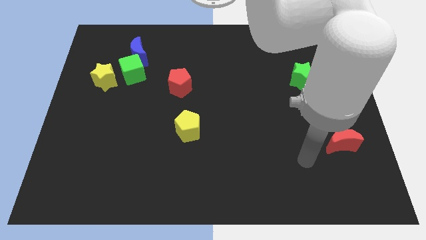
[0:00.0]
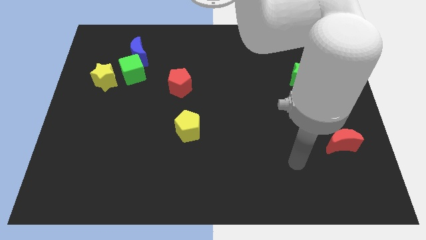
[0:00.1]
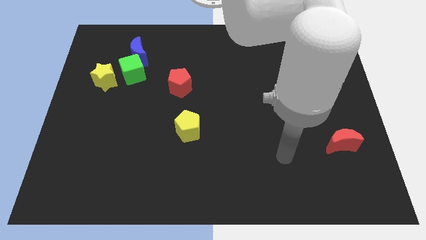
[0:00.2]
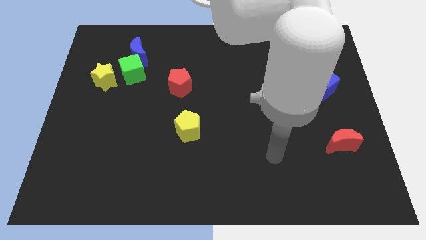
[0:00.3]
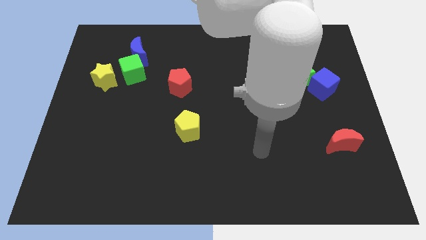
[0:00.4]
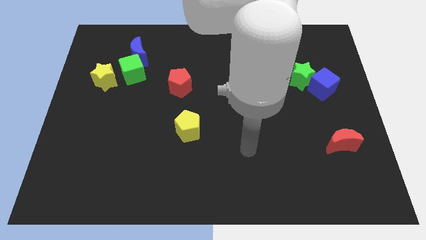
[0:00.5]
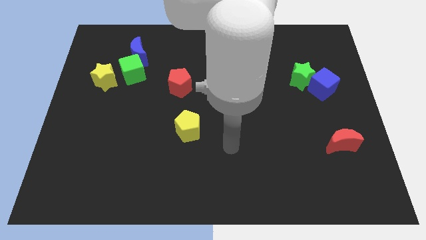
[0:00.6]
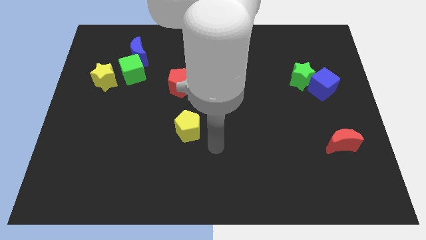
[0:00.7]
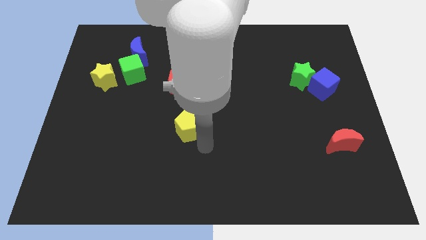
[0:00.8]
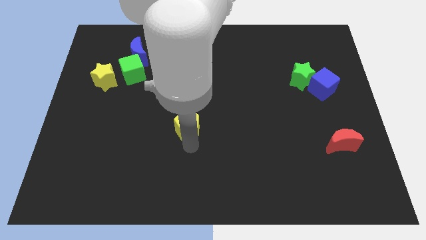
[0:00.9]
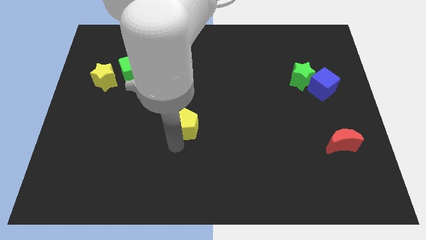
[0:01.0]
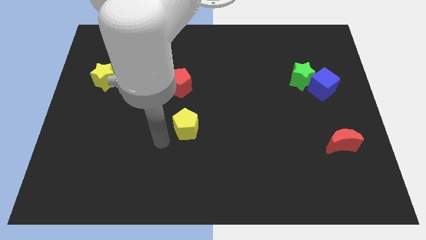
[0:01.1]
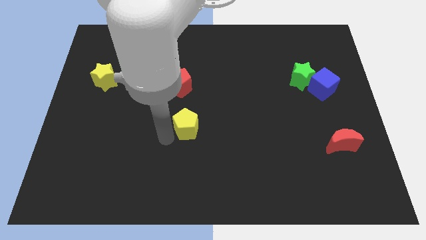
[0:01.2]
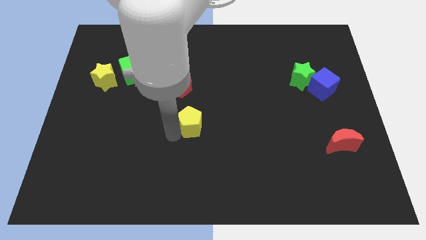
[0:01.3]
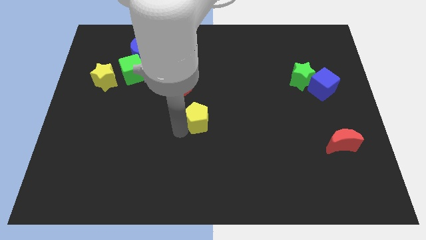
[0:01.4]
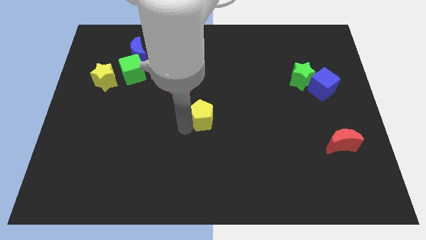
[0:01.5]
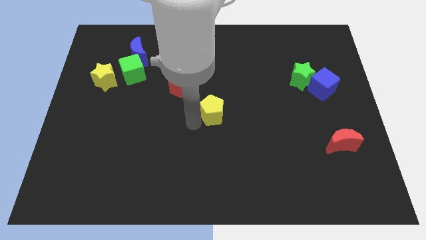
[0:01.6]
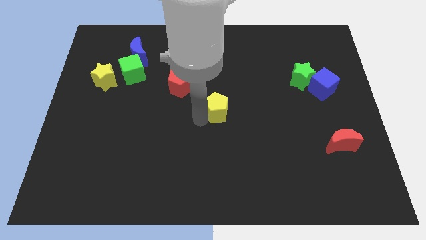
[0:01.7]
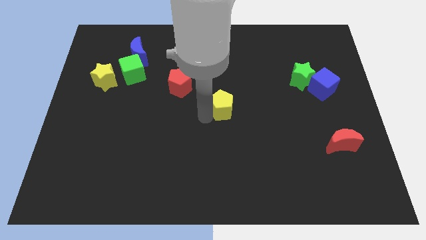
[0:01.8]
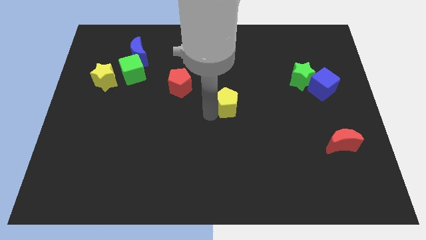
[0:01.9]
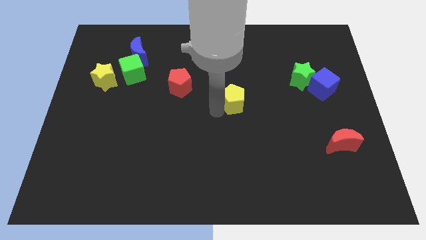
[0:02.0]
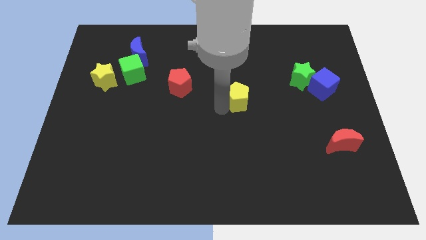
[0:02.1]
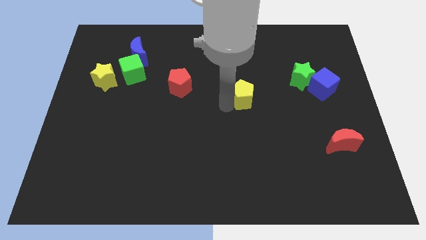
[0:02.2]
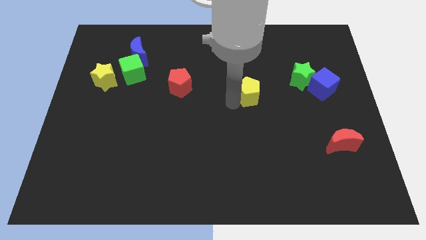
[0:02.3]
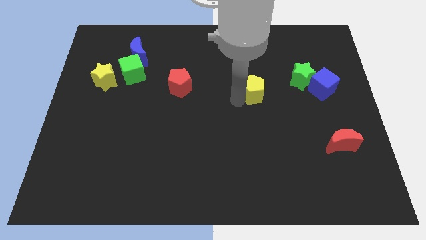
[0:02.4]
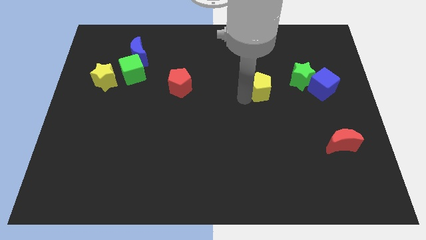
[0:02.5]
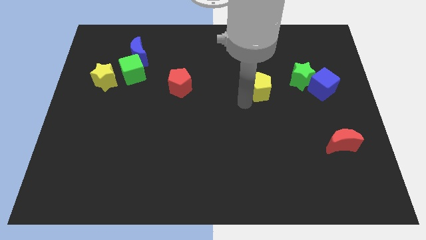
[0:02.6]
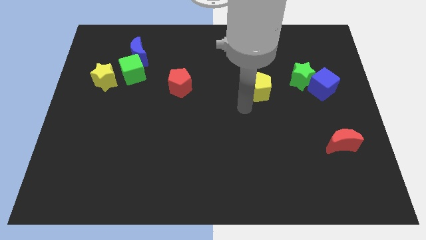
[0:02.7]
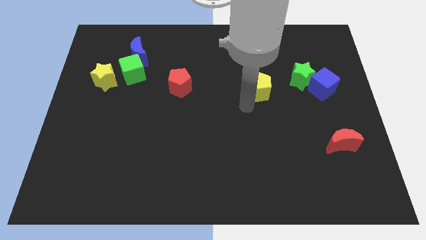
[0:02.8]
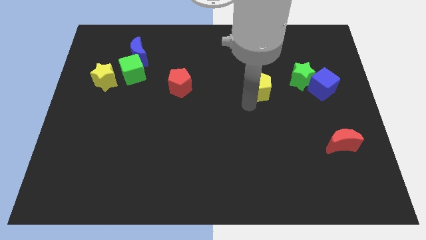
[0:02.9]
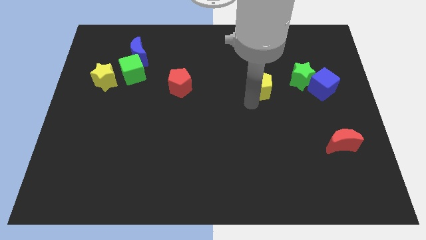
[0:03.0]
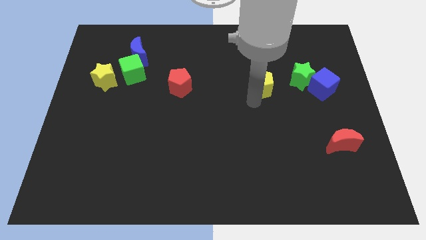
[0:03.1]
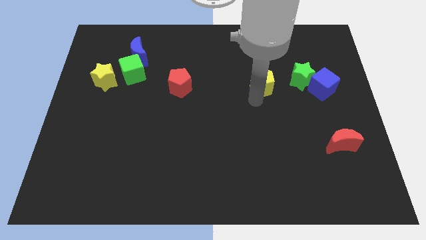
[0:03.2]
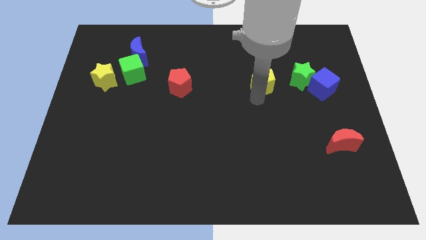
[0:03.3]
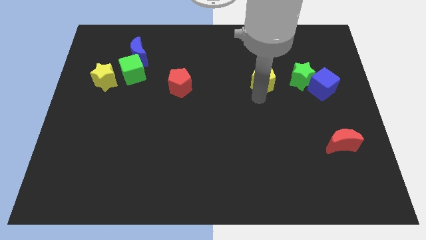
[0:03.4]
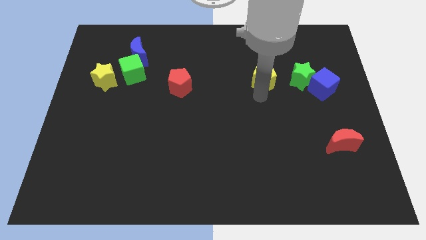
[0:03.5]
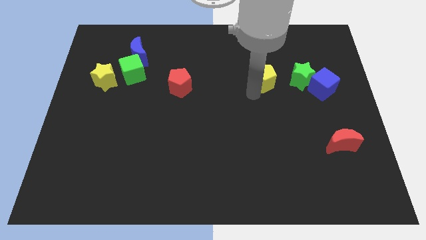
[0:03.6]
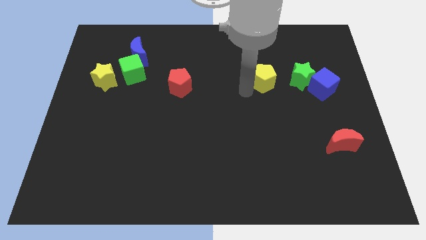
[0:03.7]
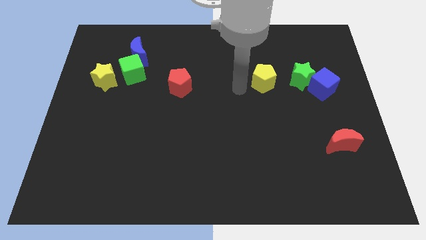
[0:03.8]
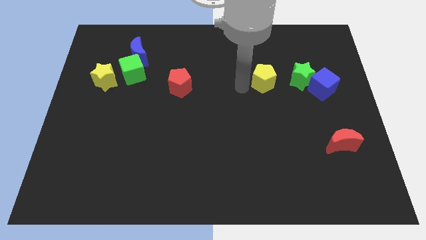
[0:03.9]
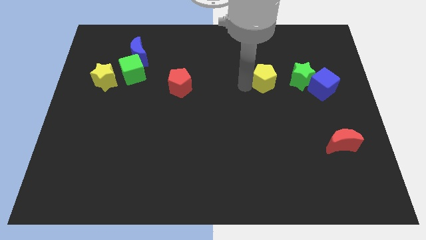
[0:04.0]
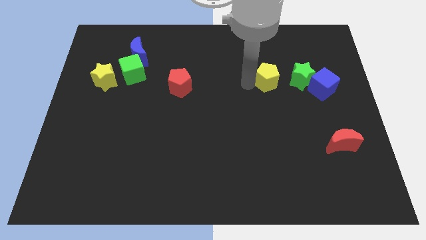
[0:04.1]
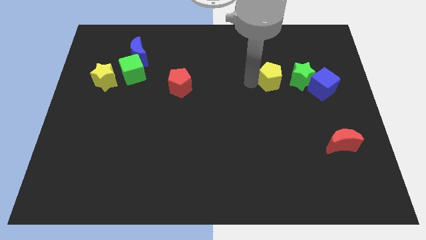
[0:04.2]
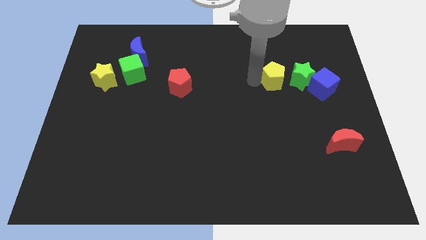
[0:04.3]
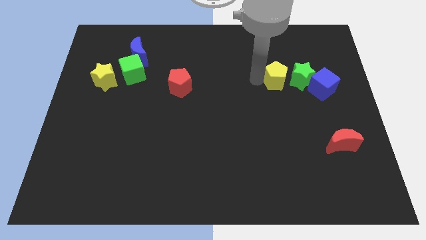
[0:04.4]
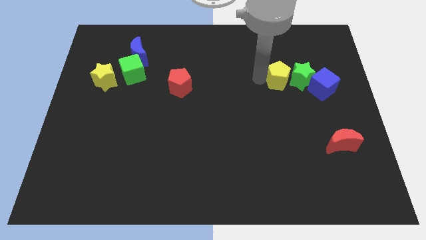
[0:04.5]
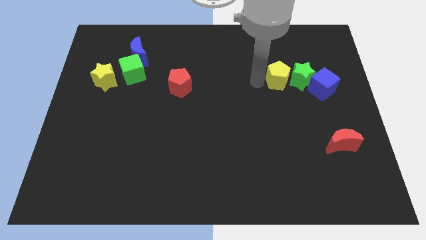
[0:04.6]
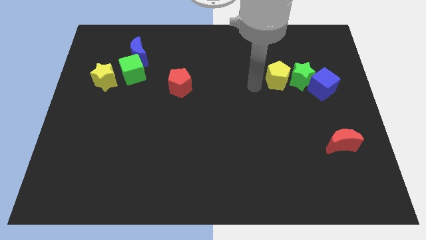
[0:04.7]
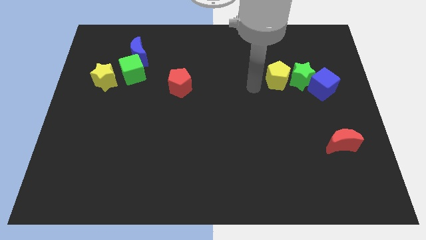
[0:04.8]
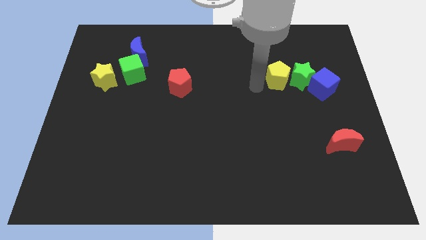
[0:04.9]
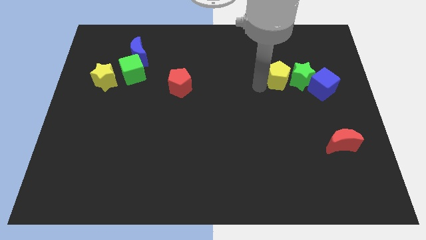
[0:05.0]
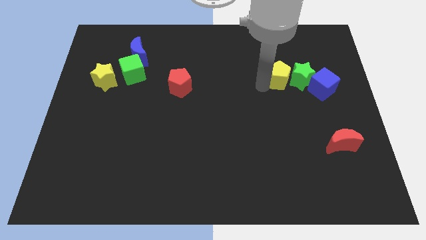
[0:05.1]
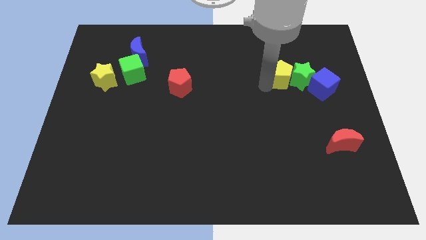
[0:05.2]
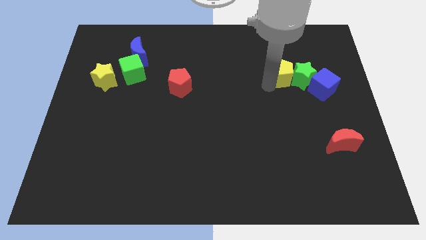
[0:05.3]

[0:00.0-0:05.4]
slide the yellow pentagon to the top left side of the blue cube

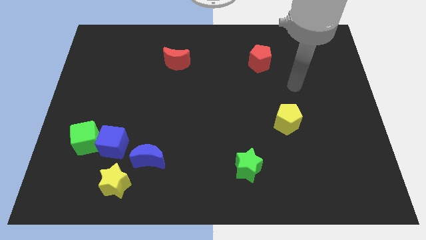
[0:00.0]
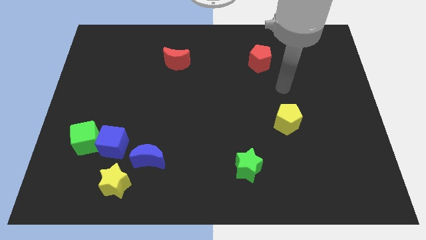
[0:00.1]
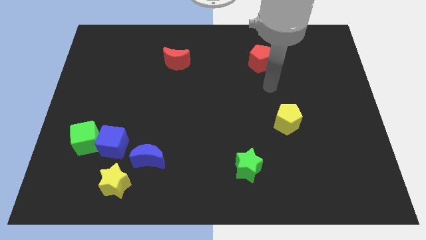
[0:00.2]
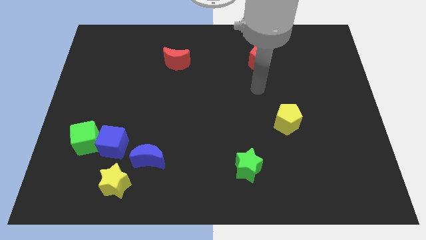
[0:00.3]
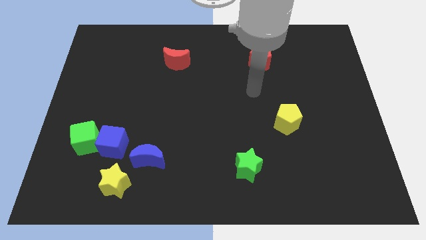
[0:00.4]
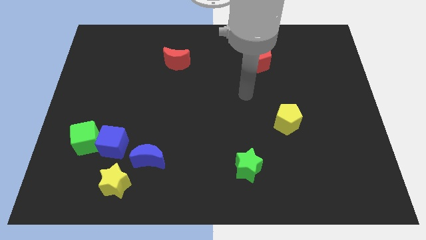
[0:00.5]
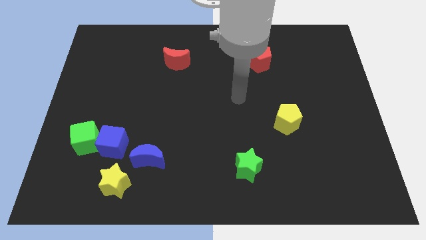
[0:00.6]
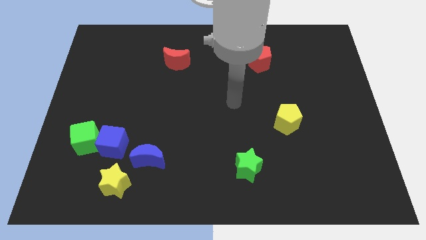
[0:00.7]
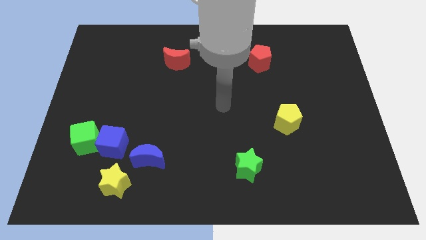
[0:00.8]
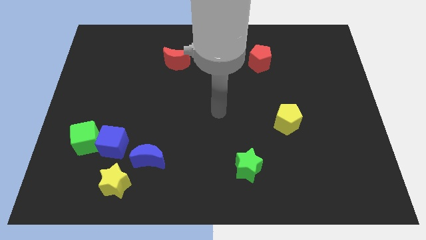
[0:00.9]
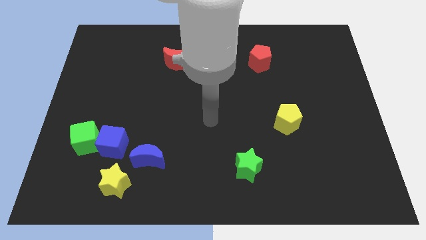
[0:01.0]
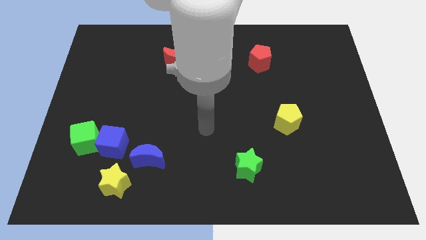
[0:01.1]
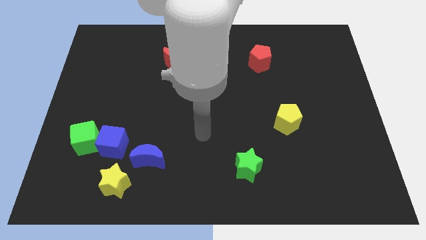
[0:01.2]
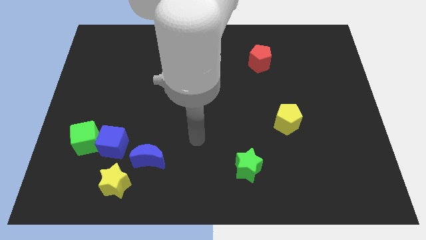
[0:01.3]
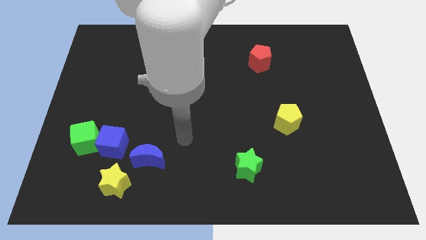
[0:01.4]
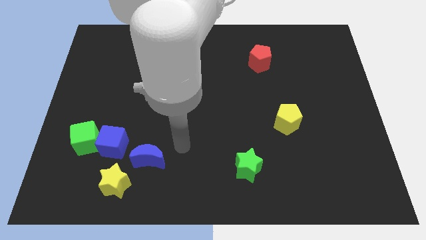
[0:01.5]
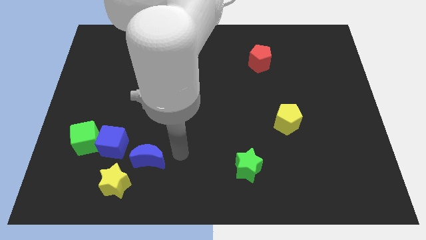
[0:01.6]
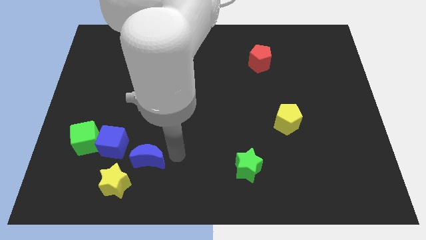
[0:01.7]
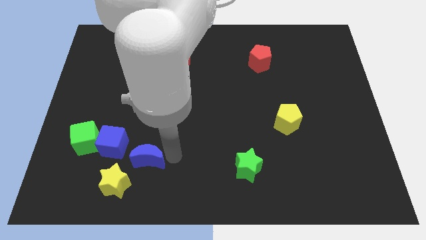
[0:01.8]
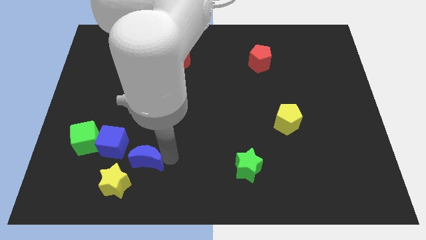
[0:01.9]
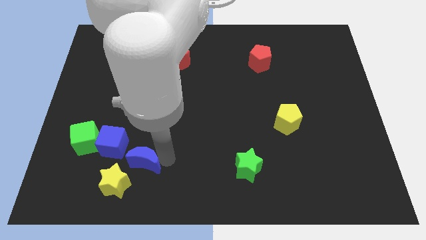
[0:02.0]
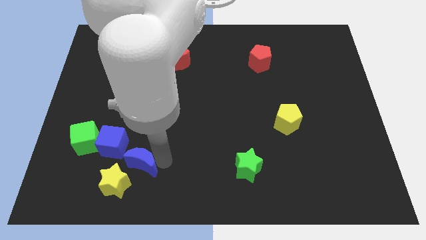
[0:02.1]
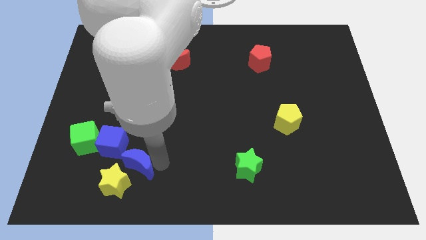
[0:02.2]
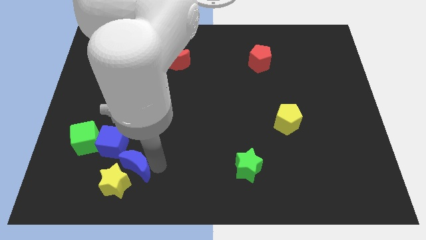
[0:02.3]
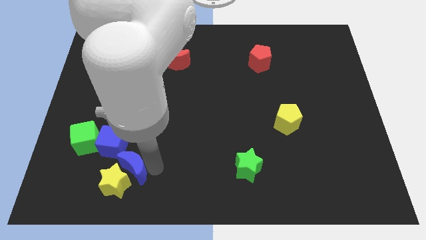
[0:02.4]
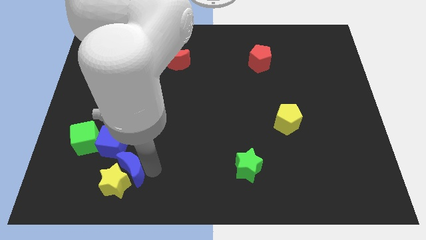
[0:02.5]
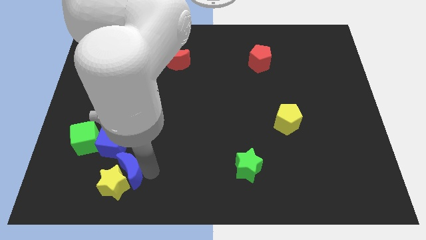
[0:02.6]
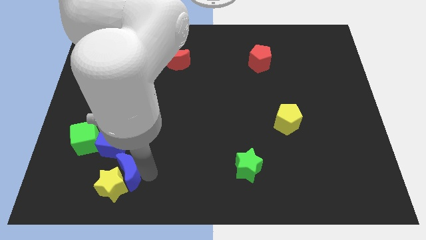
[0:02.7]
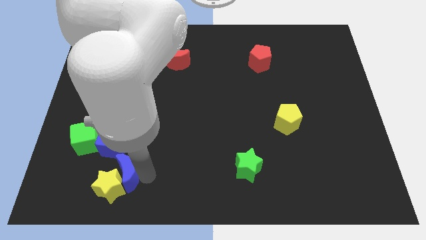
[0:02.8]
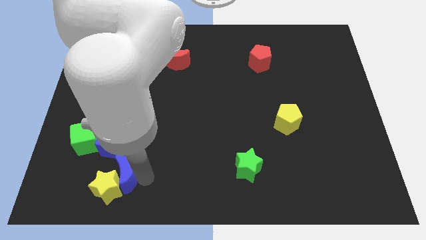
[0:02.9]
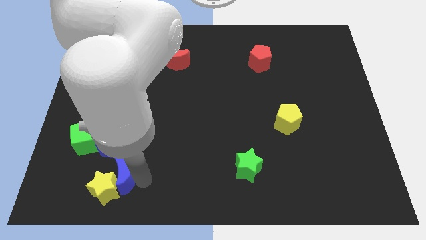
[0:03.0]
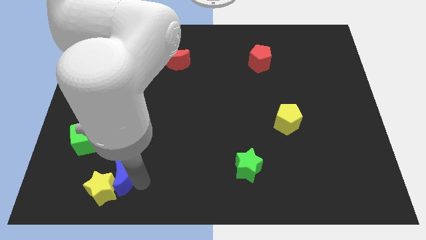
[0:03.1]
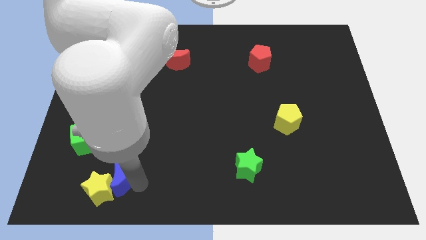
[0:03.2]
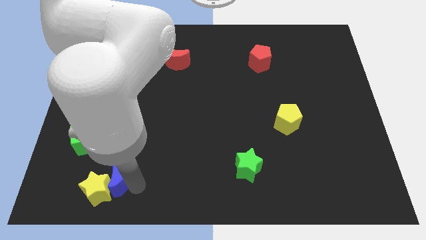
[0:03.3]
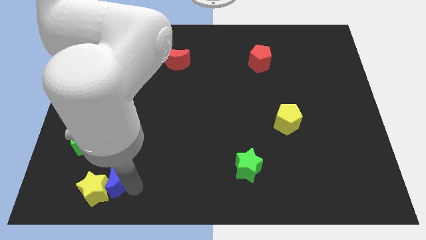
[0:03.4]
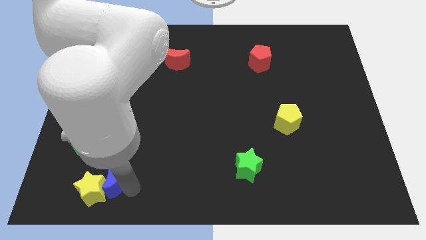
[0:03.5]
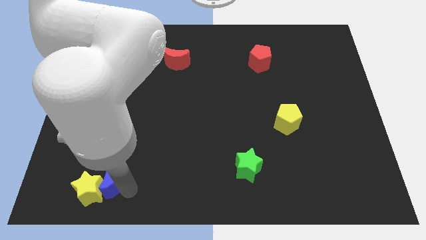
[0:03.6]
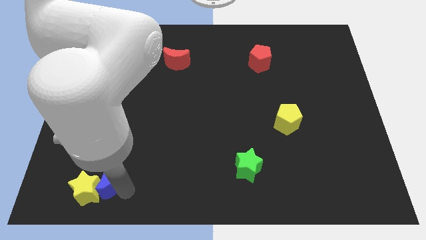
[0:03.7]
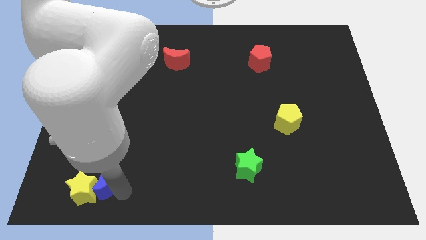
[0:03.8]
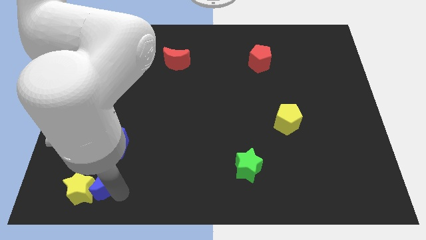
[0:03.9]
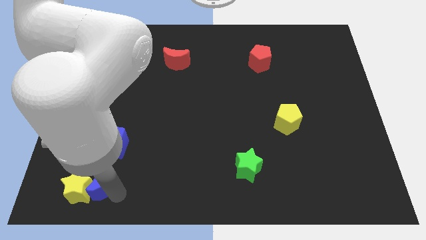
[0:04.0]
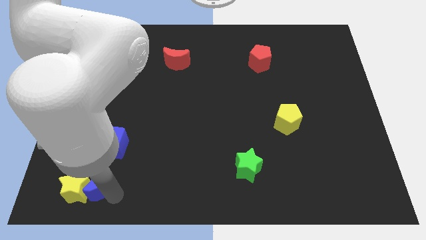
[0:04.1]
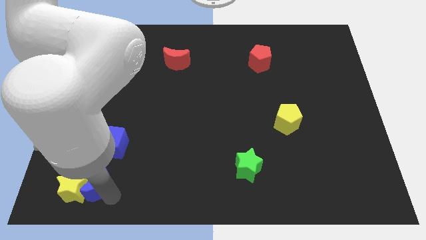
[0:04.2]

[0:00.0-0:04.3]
put the blue moon to the bottom side of the green cube
